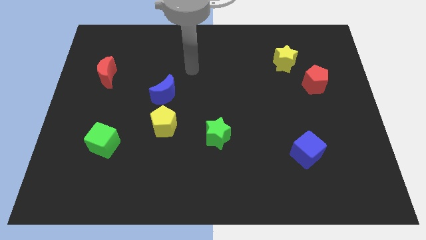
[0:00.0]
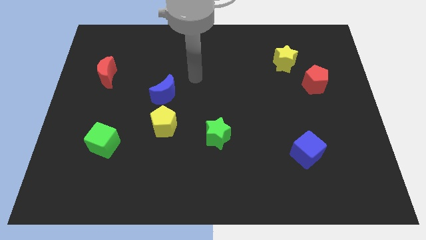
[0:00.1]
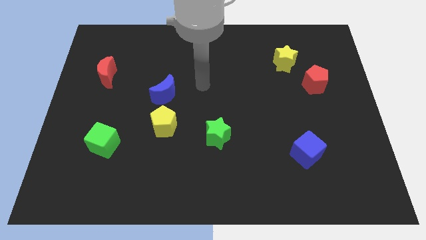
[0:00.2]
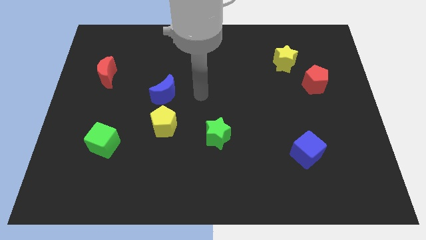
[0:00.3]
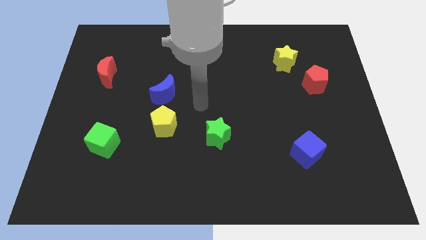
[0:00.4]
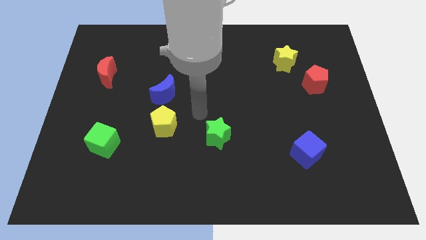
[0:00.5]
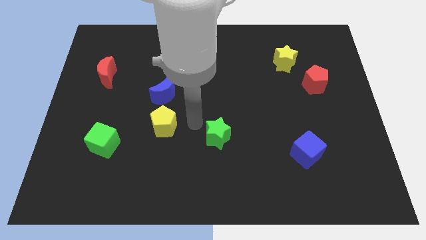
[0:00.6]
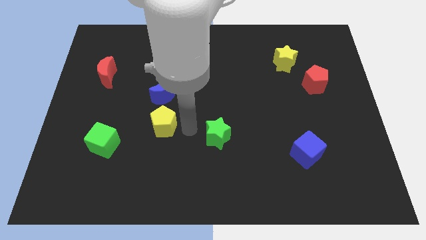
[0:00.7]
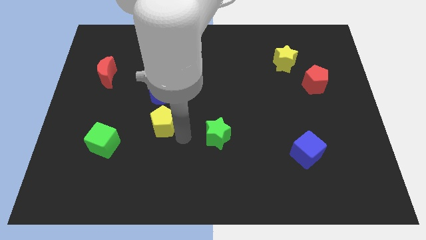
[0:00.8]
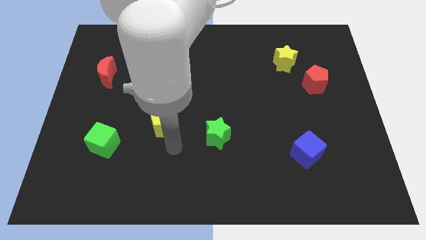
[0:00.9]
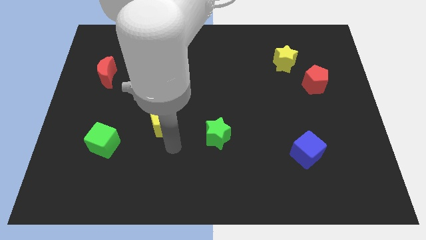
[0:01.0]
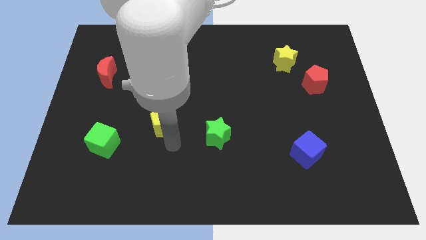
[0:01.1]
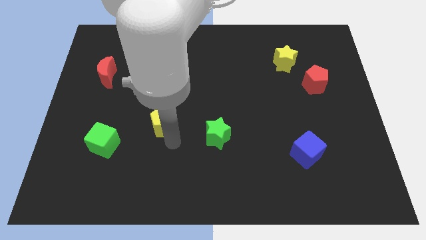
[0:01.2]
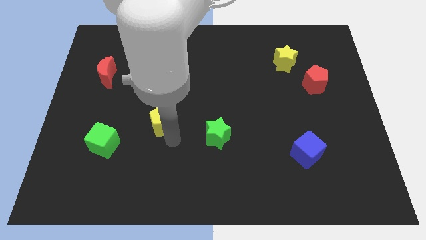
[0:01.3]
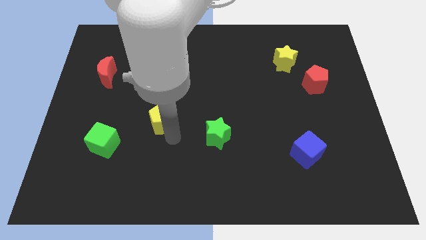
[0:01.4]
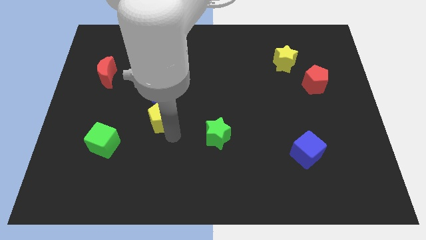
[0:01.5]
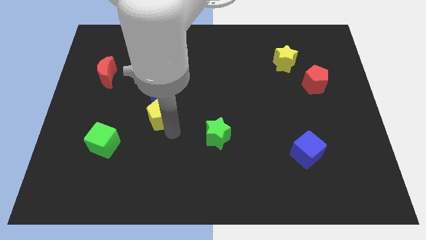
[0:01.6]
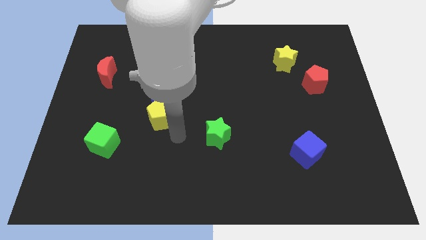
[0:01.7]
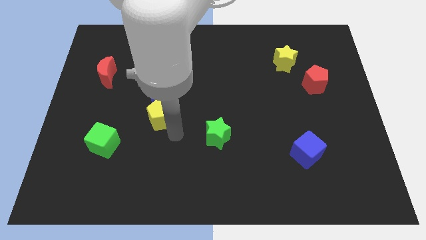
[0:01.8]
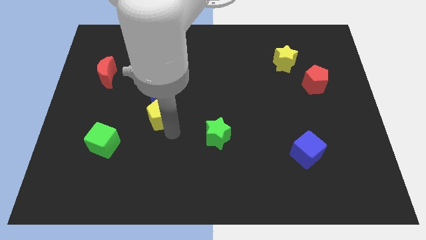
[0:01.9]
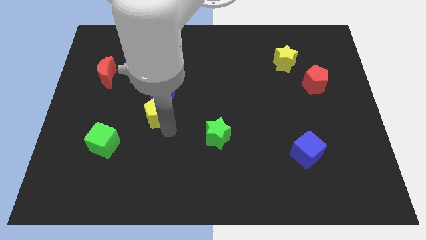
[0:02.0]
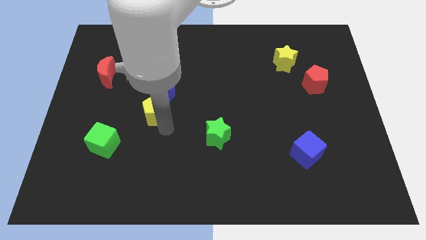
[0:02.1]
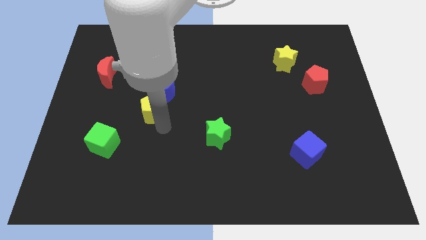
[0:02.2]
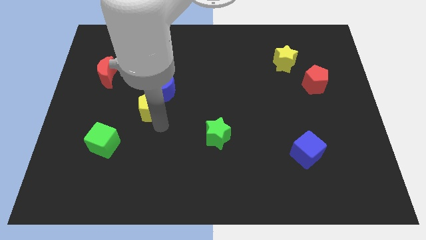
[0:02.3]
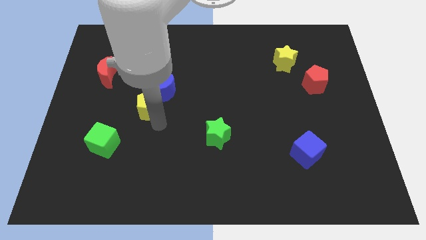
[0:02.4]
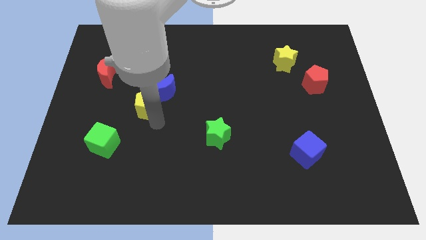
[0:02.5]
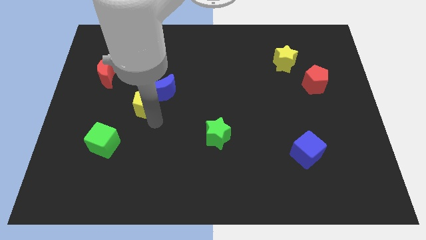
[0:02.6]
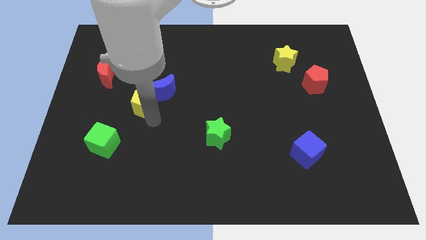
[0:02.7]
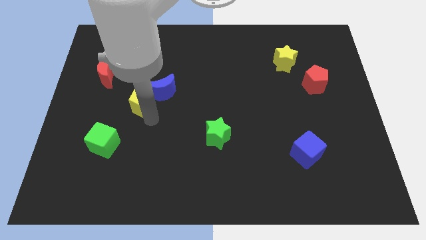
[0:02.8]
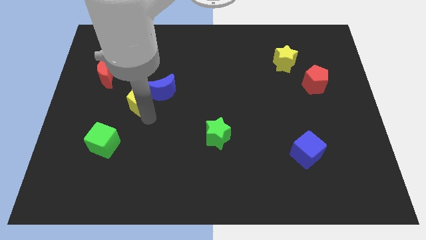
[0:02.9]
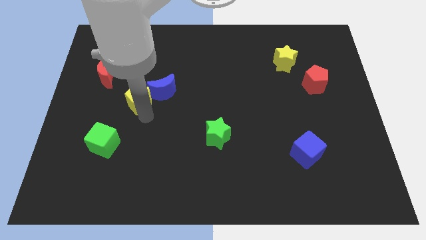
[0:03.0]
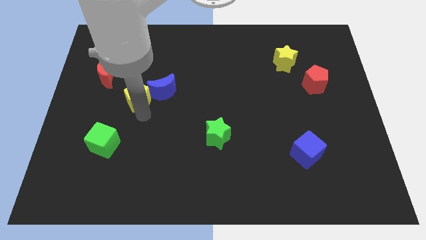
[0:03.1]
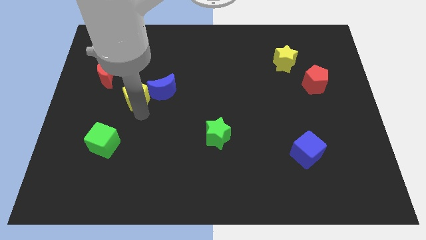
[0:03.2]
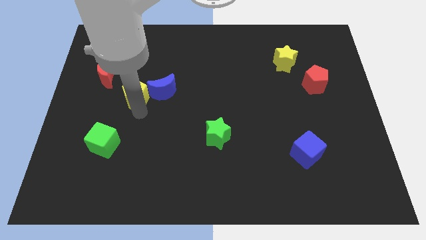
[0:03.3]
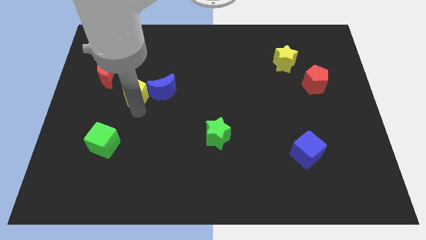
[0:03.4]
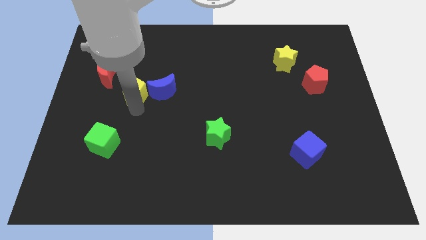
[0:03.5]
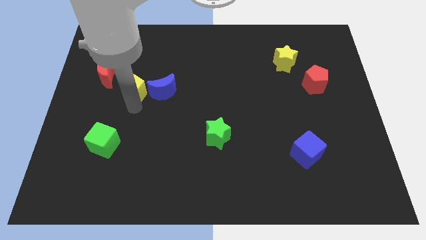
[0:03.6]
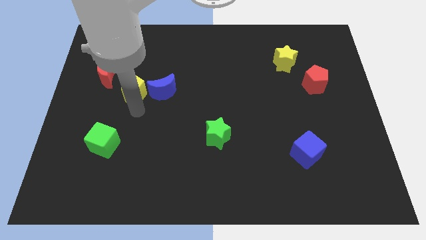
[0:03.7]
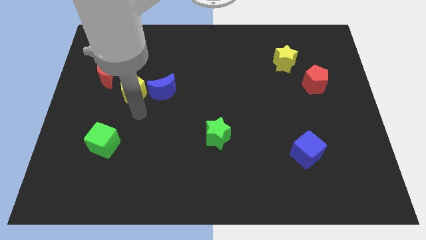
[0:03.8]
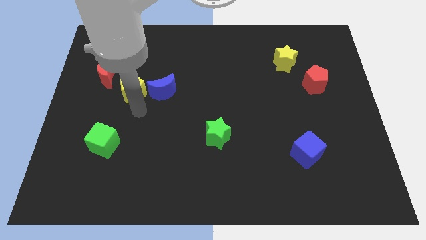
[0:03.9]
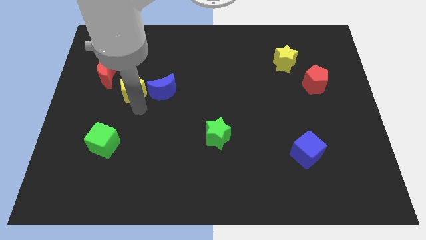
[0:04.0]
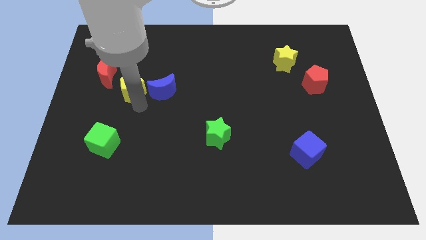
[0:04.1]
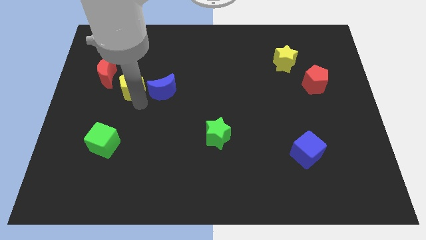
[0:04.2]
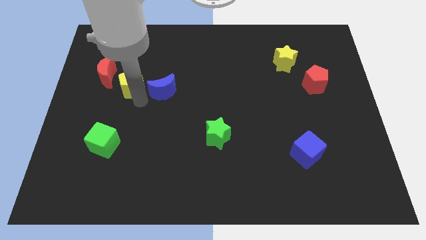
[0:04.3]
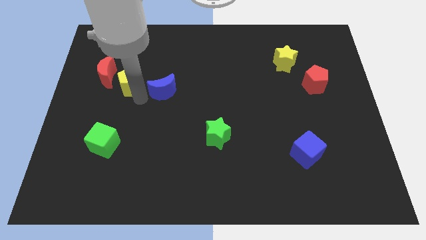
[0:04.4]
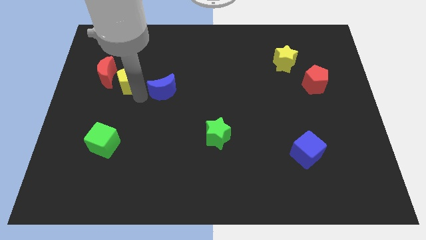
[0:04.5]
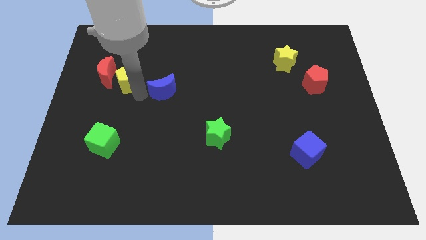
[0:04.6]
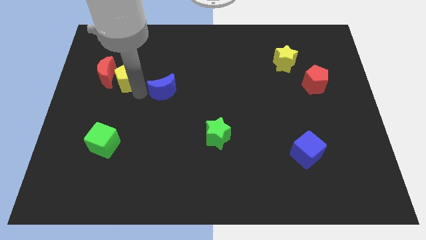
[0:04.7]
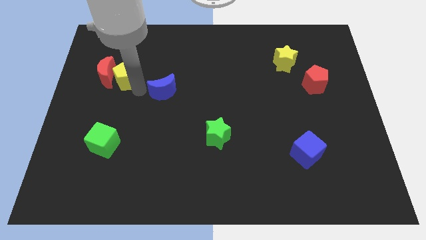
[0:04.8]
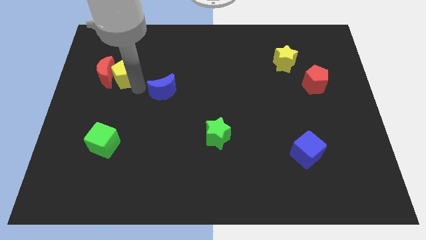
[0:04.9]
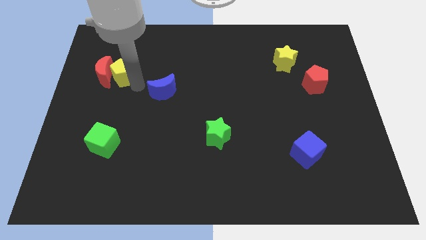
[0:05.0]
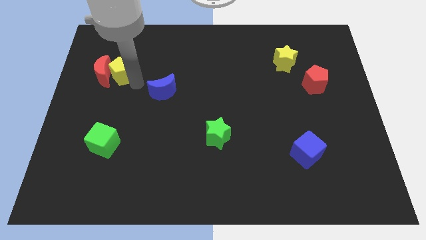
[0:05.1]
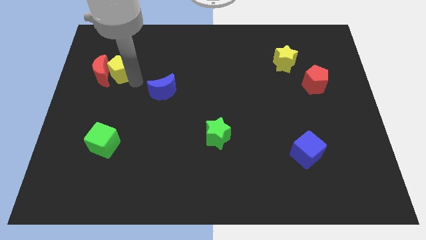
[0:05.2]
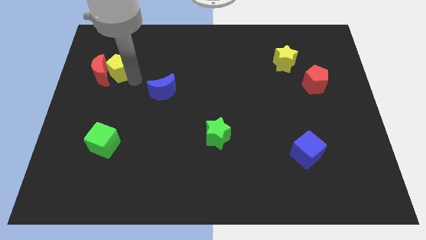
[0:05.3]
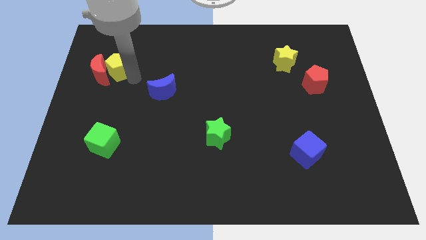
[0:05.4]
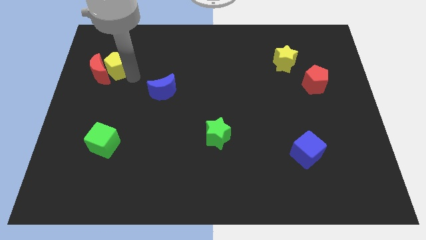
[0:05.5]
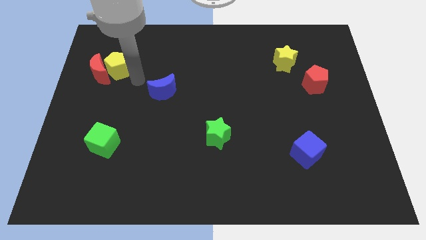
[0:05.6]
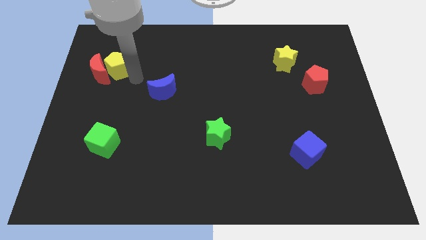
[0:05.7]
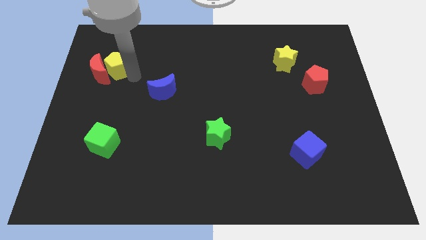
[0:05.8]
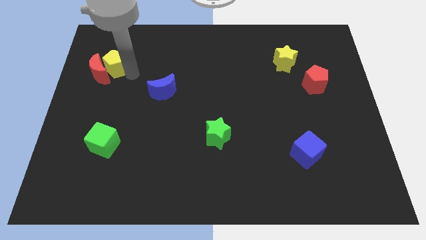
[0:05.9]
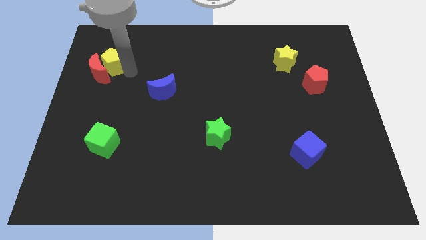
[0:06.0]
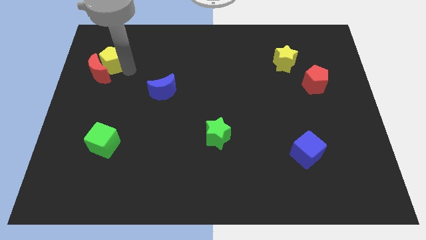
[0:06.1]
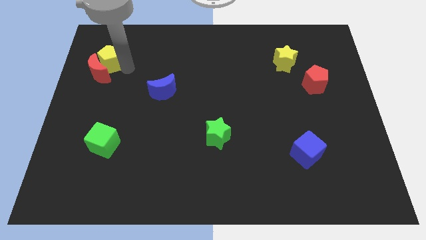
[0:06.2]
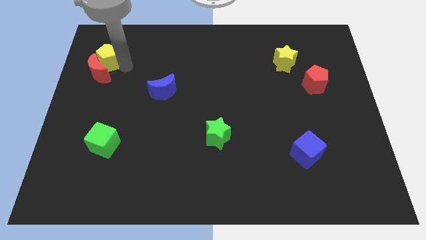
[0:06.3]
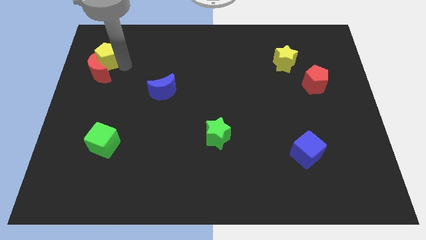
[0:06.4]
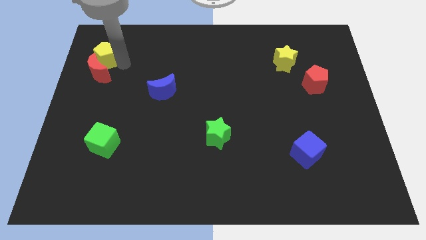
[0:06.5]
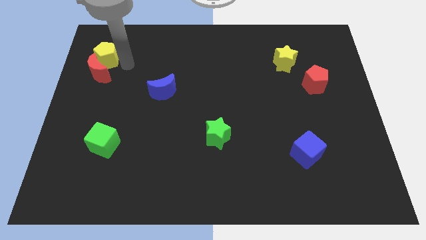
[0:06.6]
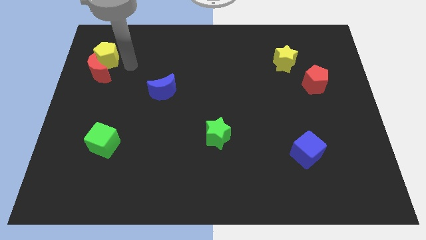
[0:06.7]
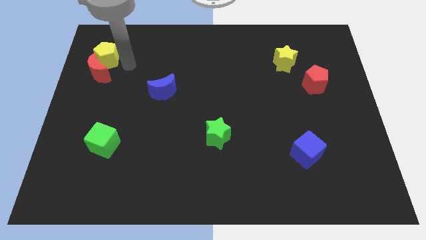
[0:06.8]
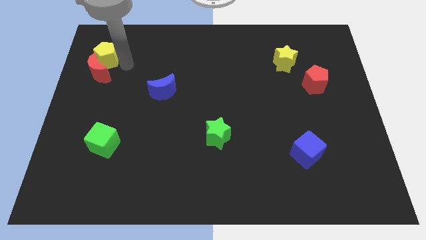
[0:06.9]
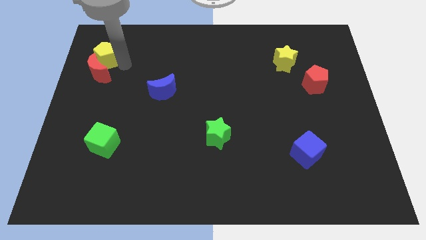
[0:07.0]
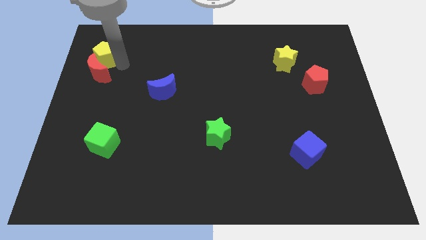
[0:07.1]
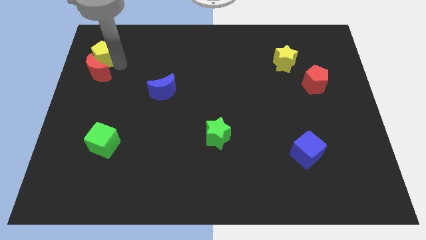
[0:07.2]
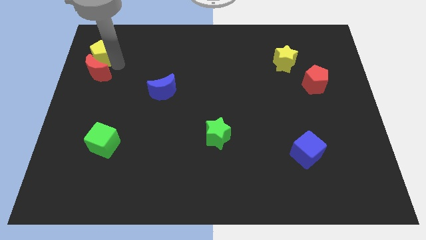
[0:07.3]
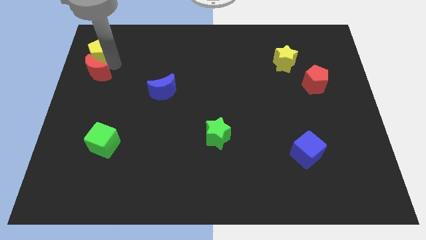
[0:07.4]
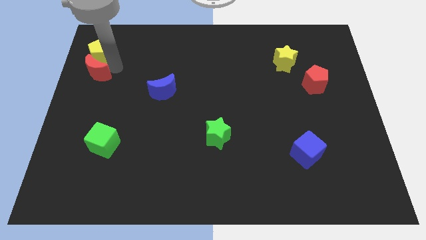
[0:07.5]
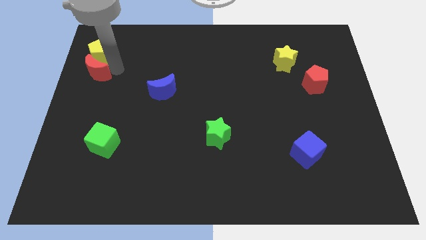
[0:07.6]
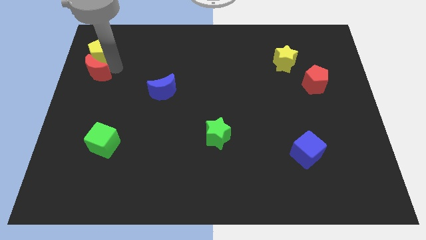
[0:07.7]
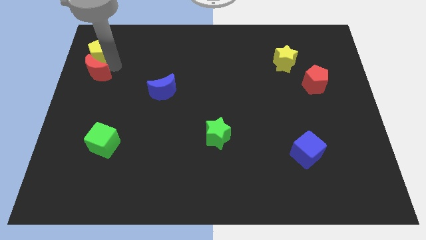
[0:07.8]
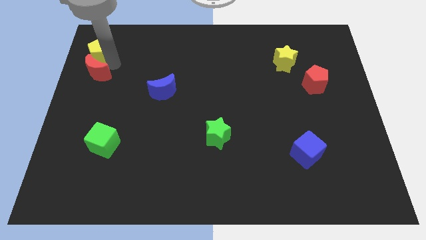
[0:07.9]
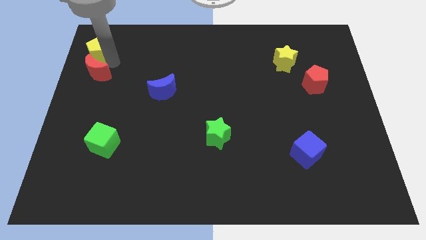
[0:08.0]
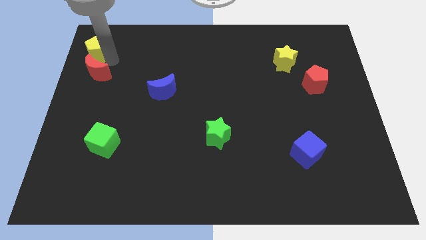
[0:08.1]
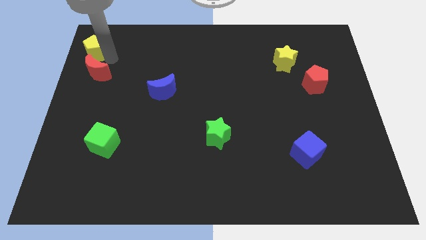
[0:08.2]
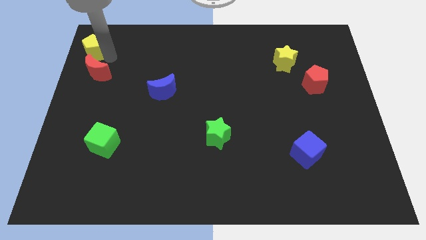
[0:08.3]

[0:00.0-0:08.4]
put the yellow pentagon to the top left
